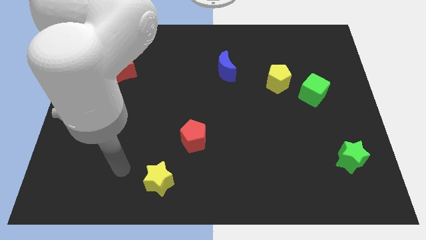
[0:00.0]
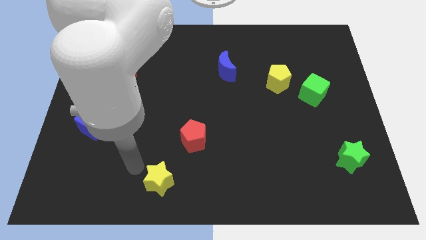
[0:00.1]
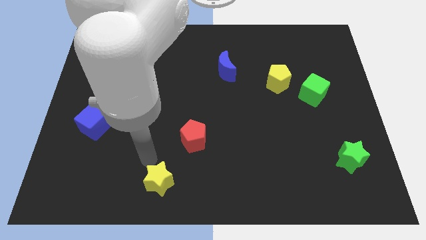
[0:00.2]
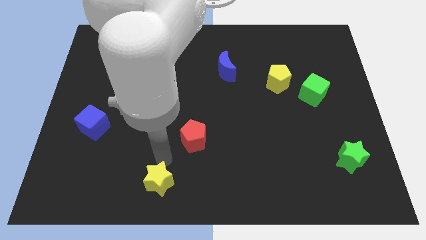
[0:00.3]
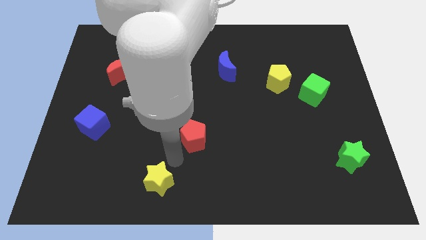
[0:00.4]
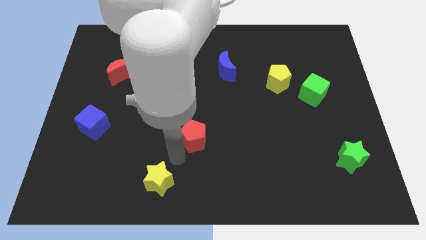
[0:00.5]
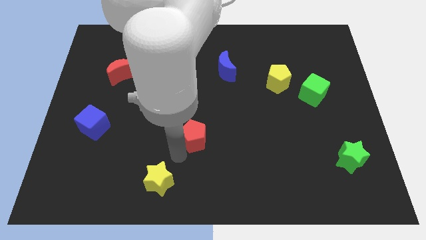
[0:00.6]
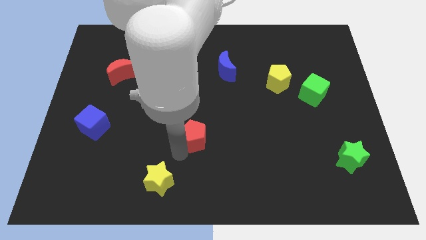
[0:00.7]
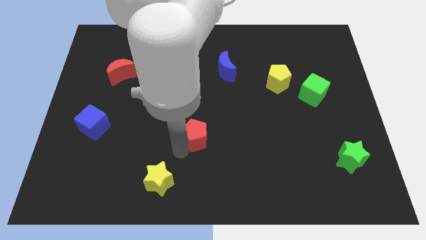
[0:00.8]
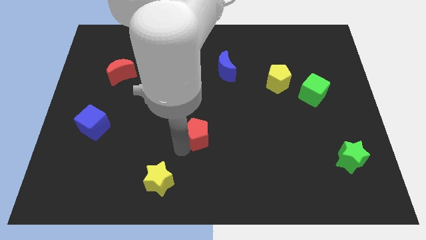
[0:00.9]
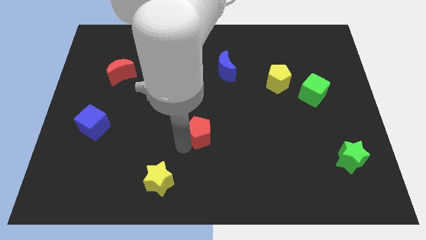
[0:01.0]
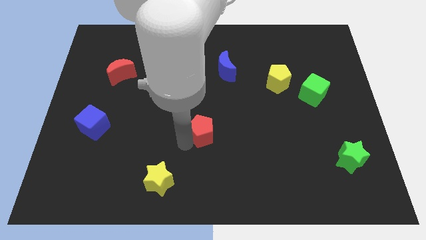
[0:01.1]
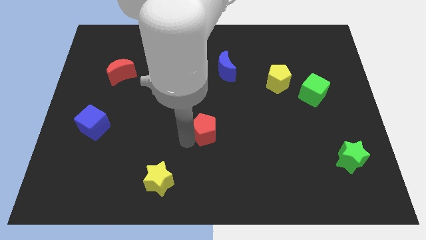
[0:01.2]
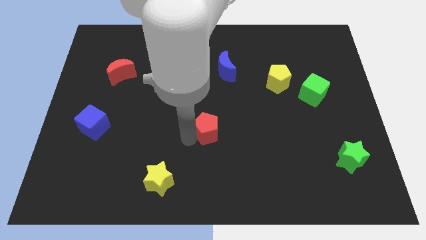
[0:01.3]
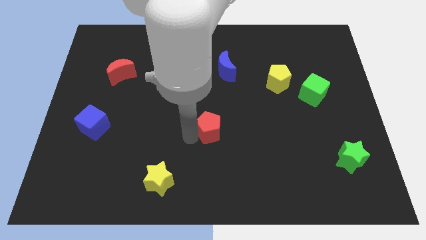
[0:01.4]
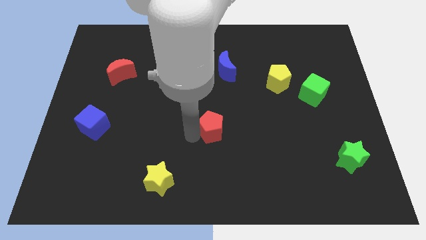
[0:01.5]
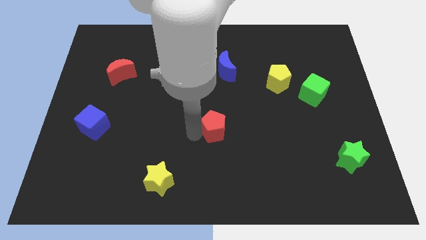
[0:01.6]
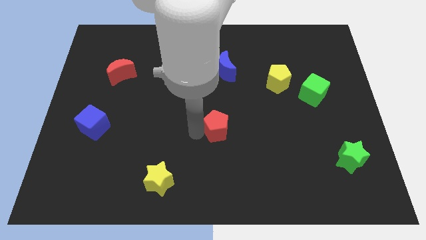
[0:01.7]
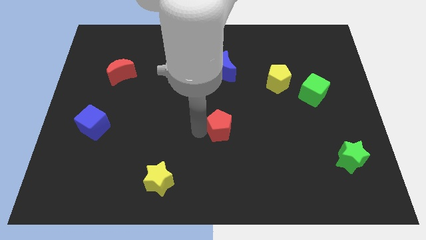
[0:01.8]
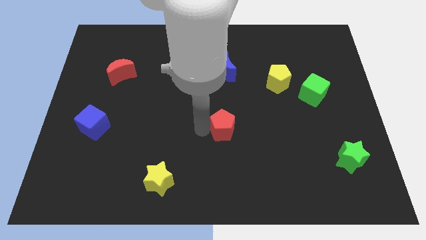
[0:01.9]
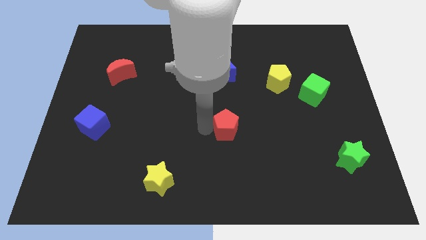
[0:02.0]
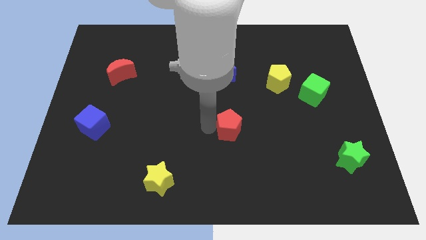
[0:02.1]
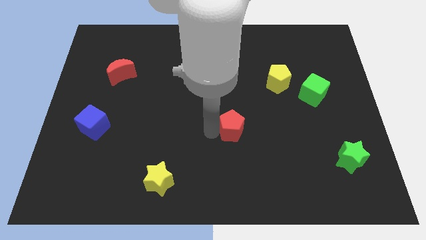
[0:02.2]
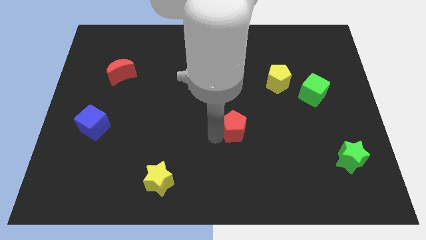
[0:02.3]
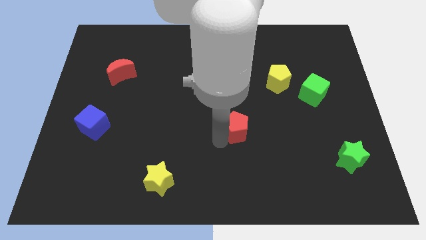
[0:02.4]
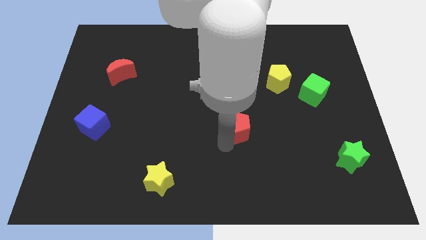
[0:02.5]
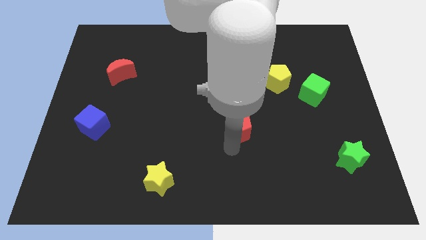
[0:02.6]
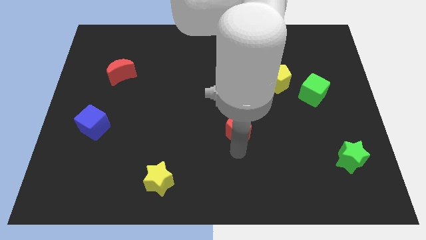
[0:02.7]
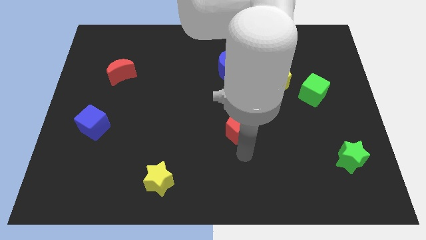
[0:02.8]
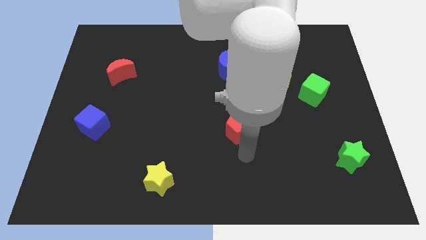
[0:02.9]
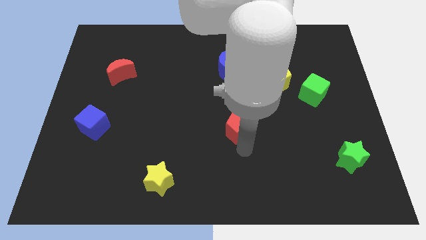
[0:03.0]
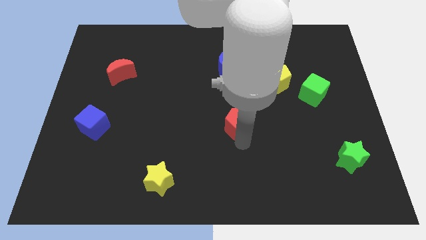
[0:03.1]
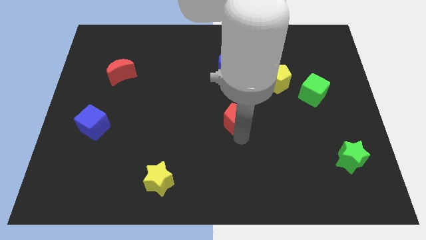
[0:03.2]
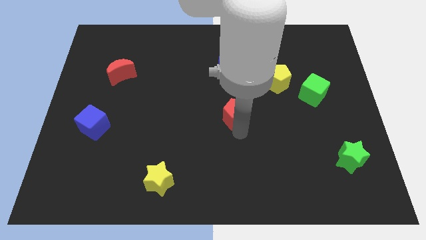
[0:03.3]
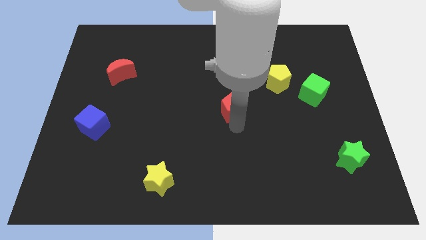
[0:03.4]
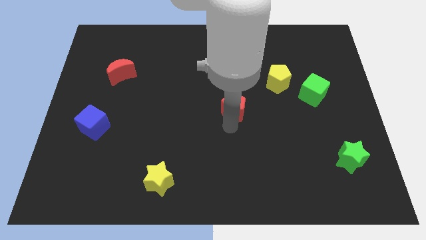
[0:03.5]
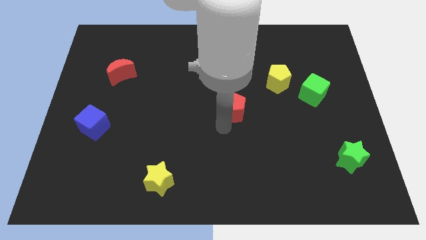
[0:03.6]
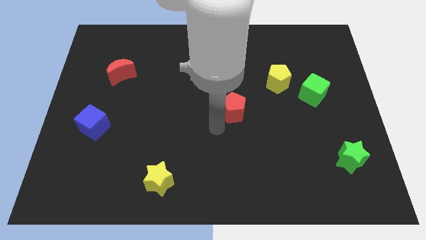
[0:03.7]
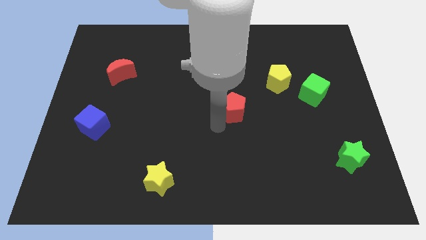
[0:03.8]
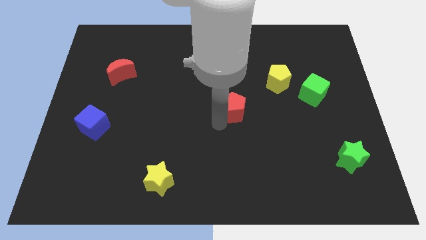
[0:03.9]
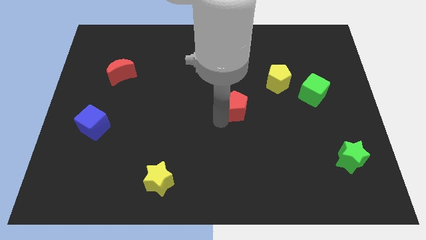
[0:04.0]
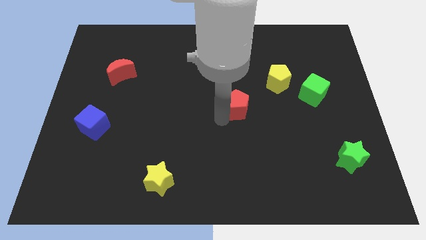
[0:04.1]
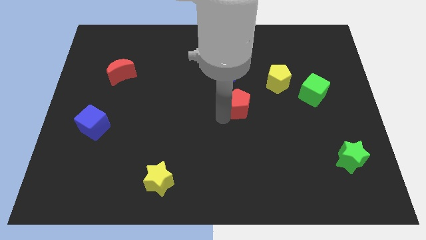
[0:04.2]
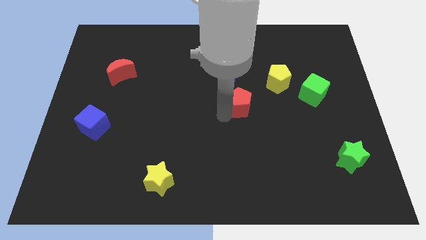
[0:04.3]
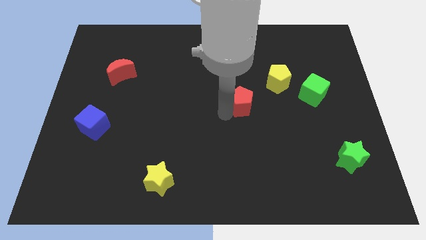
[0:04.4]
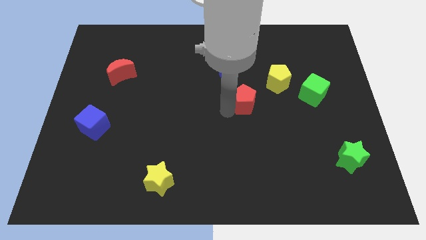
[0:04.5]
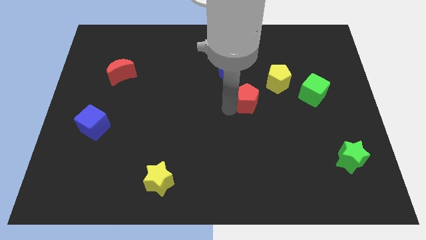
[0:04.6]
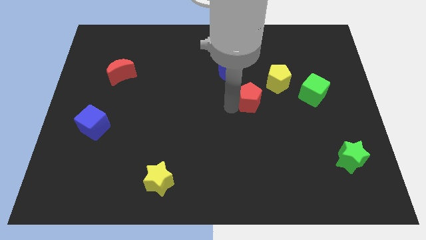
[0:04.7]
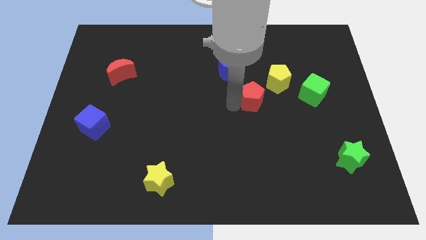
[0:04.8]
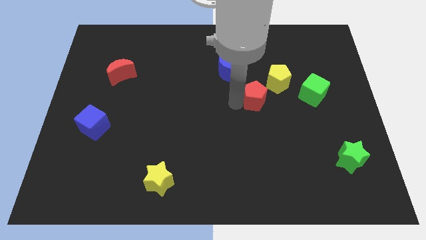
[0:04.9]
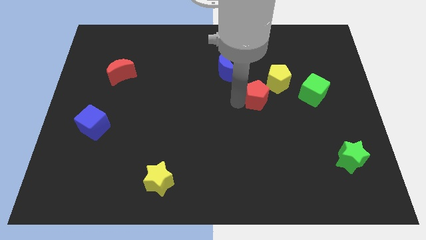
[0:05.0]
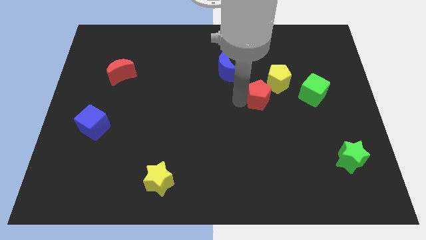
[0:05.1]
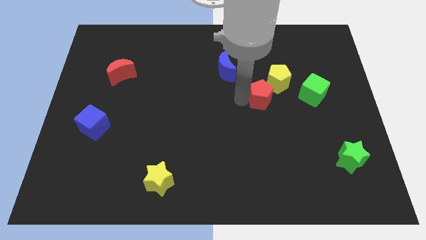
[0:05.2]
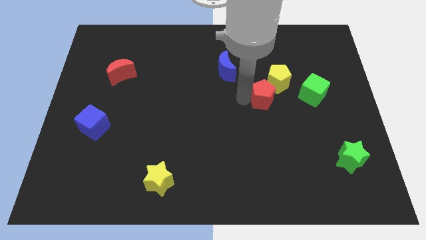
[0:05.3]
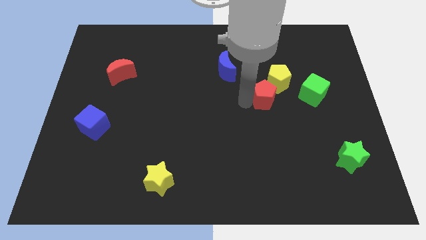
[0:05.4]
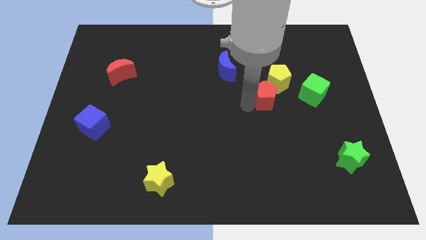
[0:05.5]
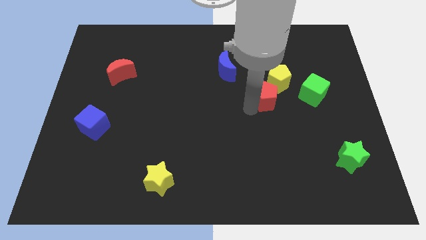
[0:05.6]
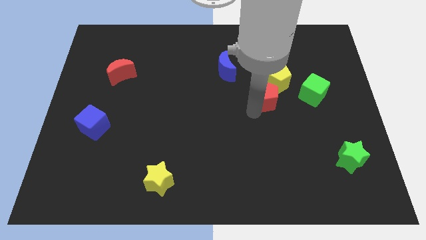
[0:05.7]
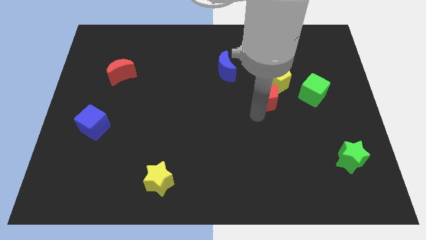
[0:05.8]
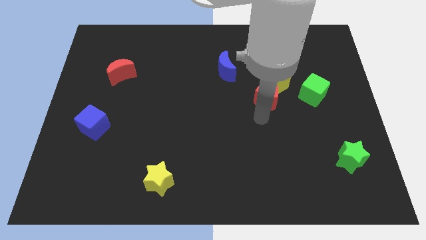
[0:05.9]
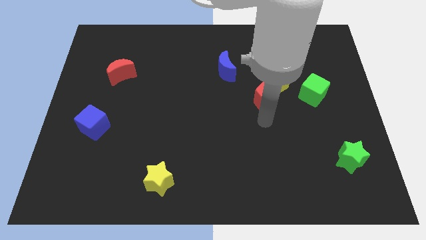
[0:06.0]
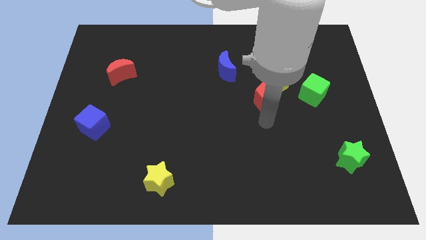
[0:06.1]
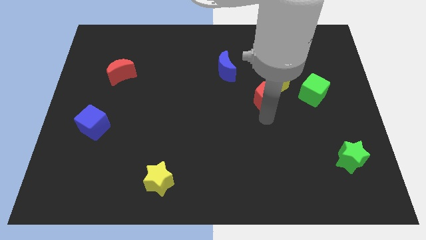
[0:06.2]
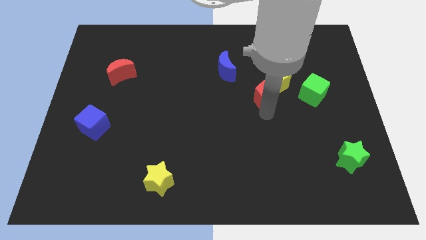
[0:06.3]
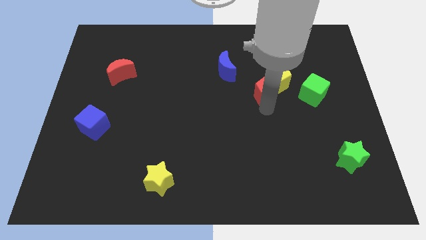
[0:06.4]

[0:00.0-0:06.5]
push the red pentagon towards the yellow pentagon
